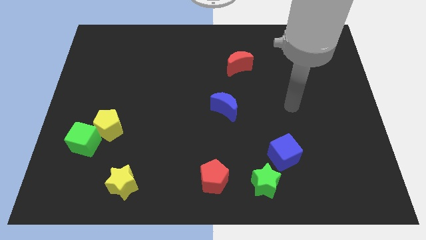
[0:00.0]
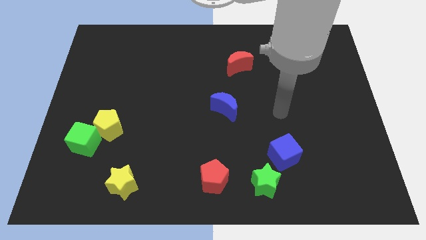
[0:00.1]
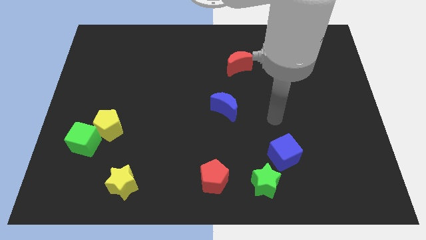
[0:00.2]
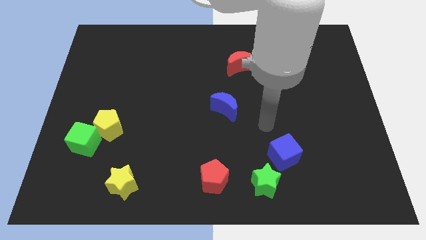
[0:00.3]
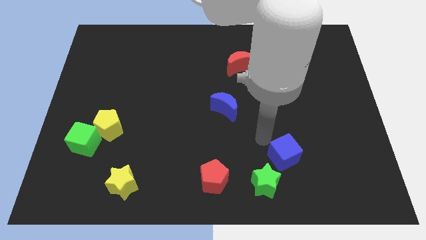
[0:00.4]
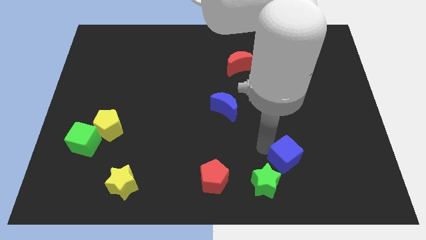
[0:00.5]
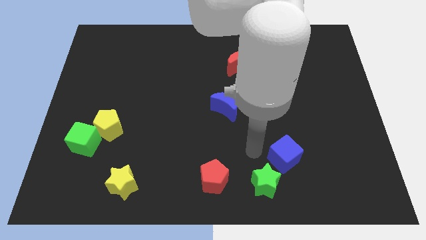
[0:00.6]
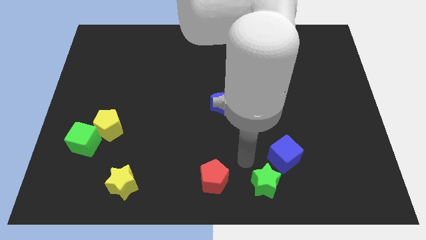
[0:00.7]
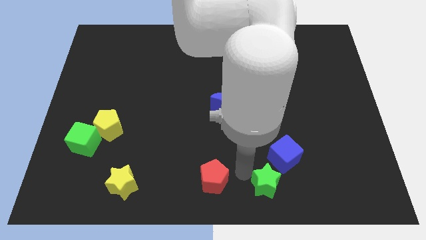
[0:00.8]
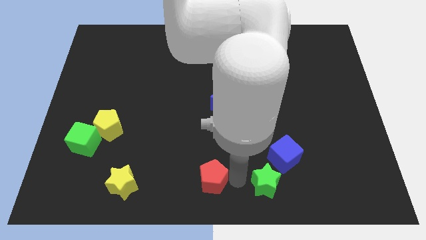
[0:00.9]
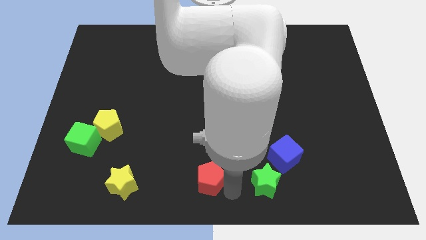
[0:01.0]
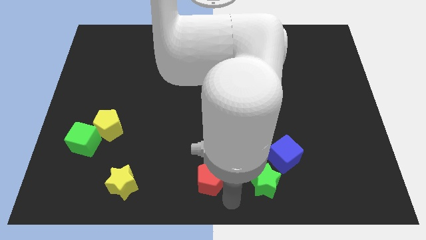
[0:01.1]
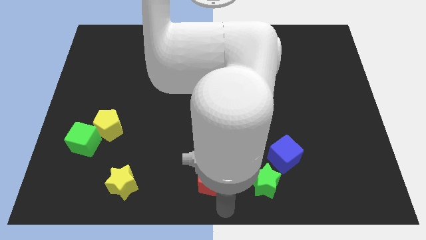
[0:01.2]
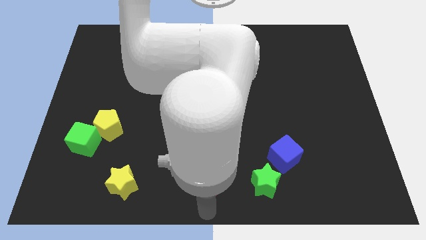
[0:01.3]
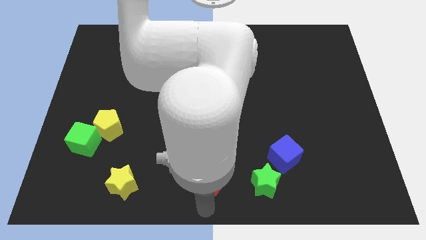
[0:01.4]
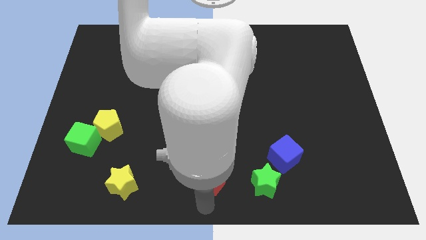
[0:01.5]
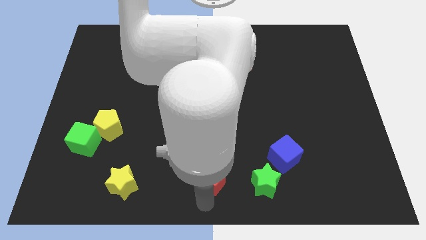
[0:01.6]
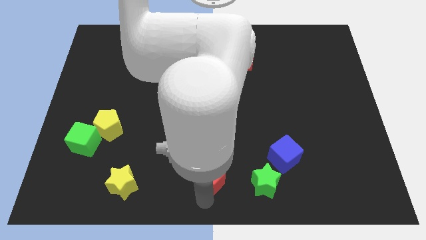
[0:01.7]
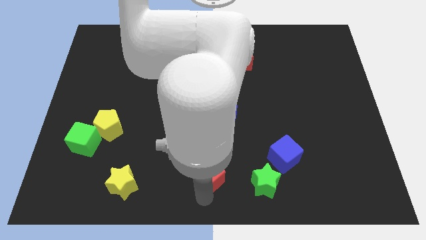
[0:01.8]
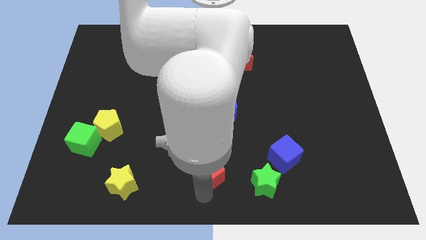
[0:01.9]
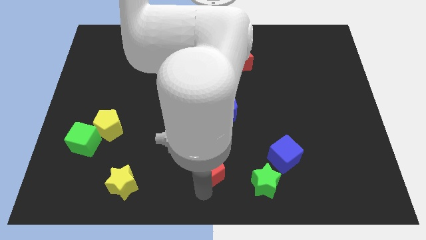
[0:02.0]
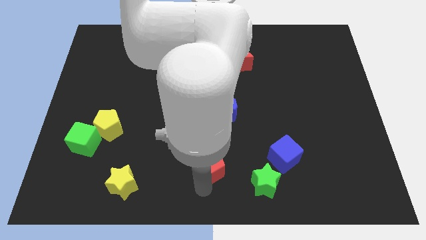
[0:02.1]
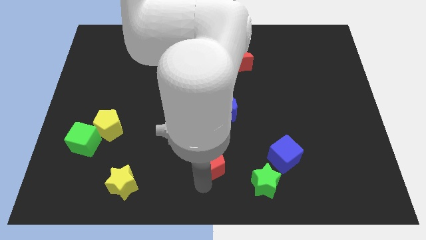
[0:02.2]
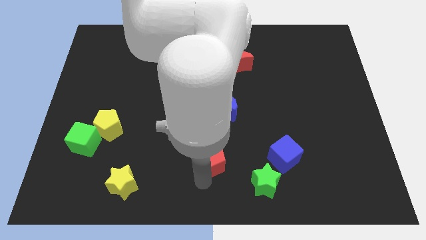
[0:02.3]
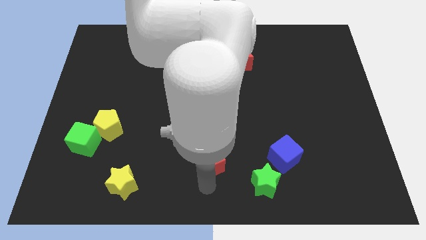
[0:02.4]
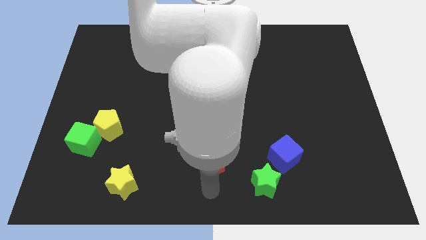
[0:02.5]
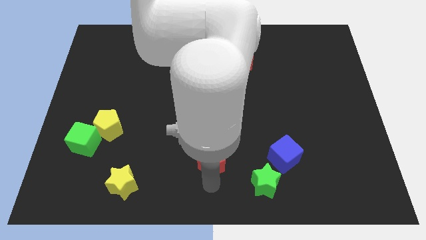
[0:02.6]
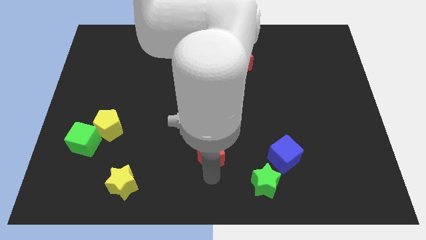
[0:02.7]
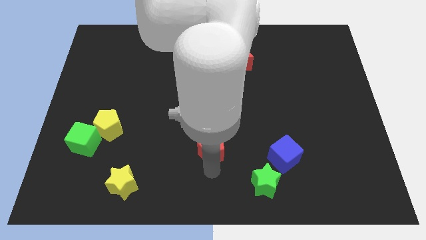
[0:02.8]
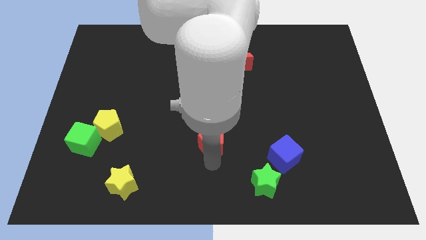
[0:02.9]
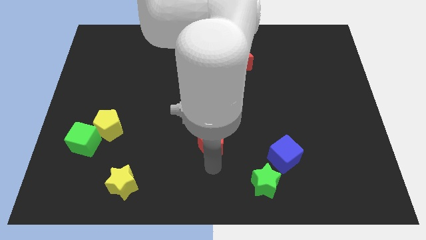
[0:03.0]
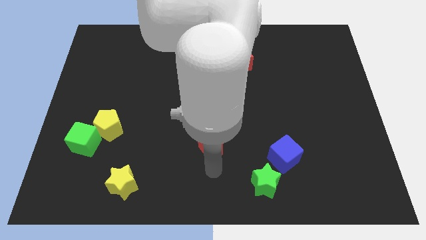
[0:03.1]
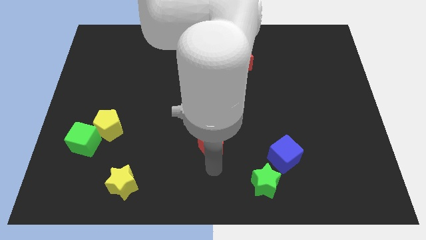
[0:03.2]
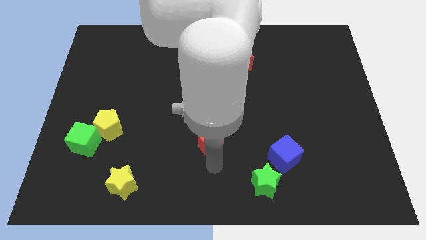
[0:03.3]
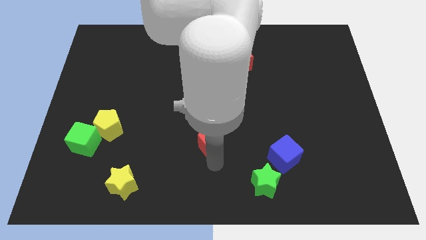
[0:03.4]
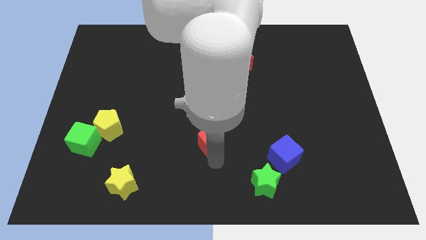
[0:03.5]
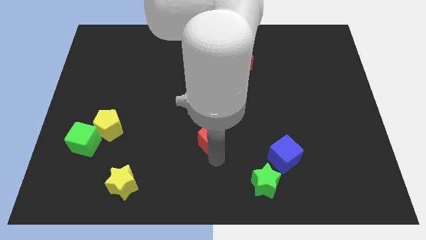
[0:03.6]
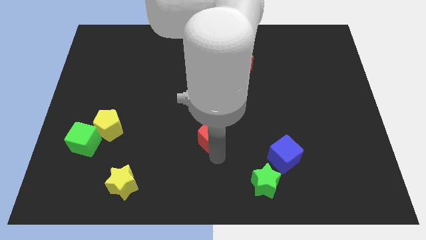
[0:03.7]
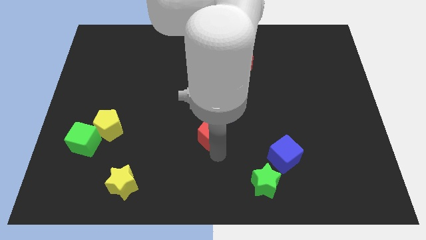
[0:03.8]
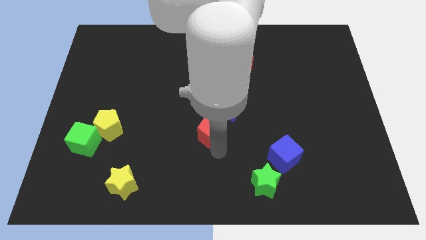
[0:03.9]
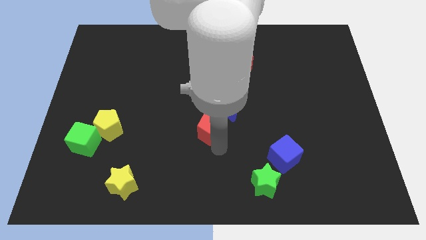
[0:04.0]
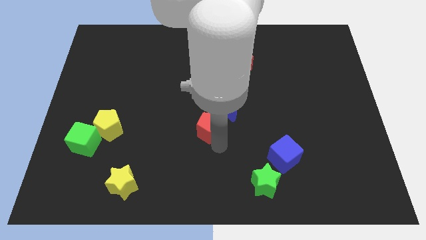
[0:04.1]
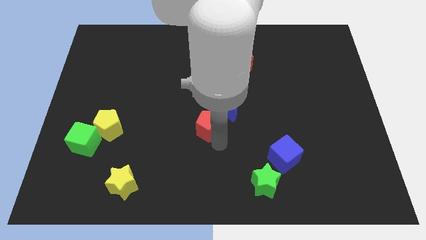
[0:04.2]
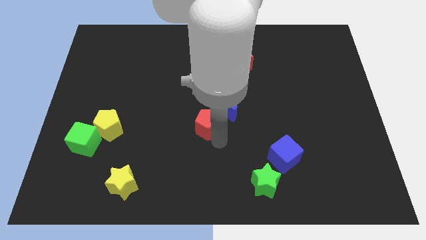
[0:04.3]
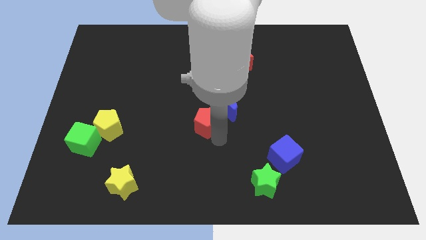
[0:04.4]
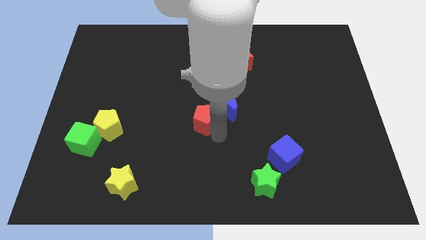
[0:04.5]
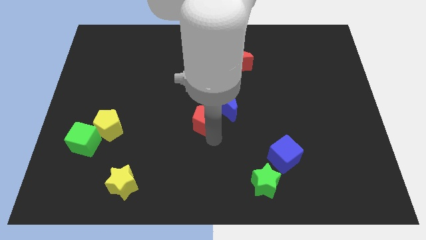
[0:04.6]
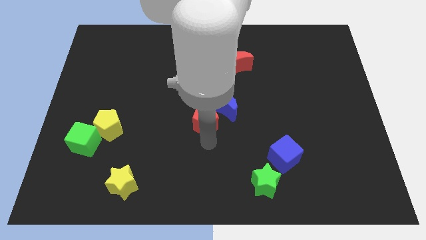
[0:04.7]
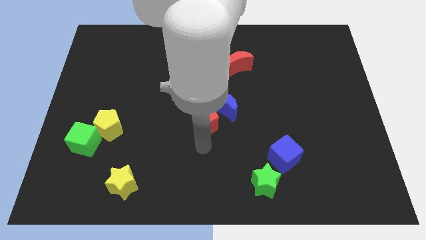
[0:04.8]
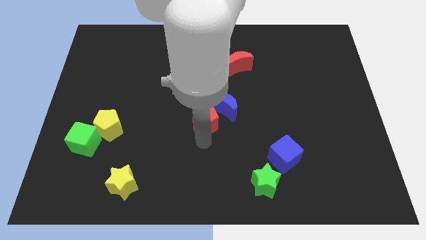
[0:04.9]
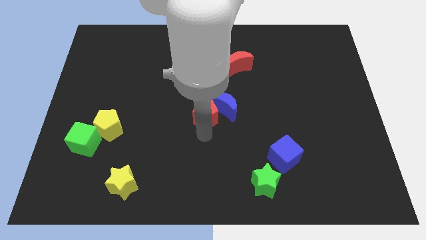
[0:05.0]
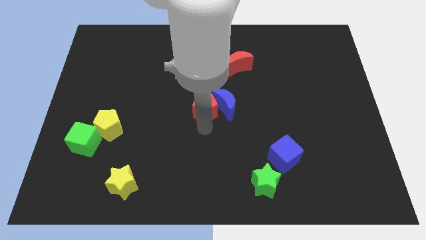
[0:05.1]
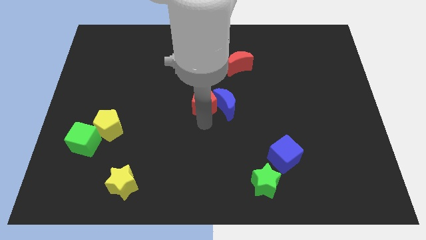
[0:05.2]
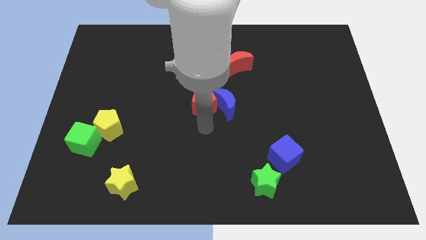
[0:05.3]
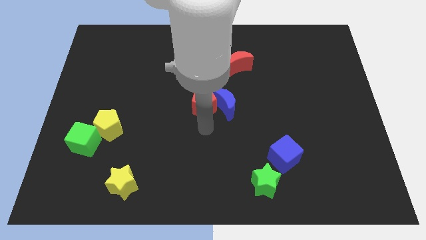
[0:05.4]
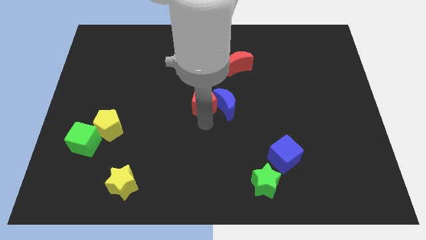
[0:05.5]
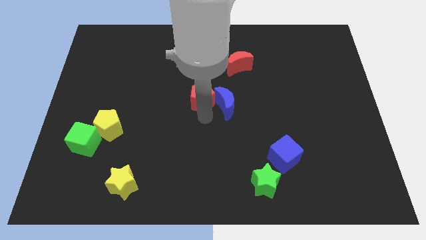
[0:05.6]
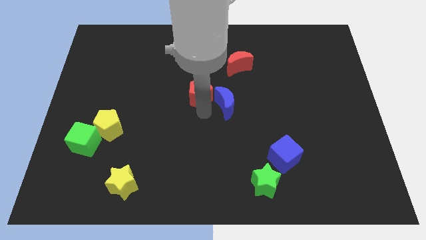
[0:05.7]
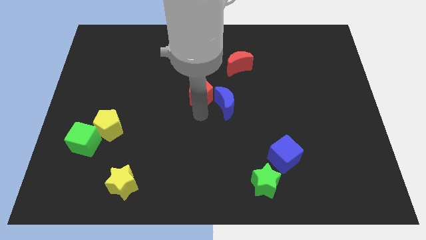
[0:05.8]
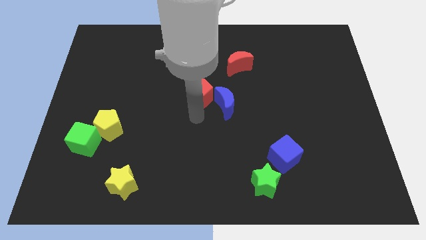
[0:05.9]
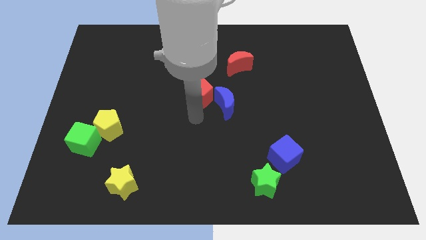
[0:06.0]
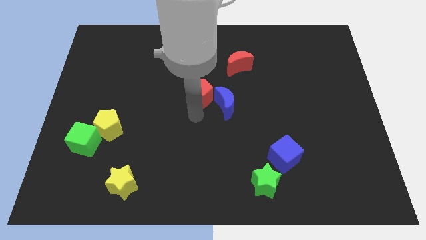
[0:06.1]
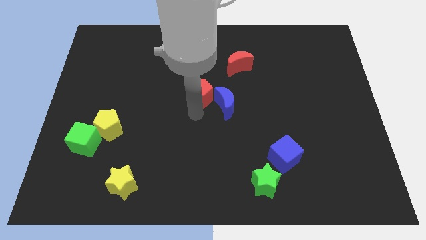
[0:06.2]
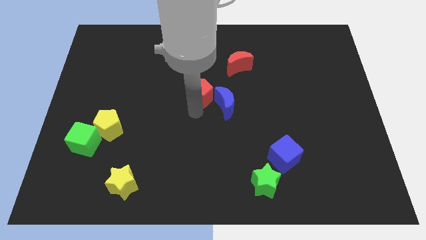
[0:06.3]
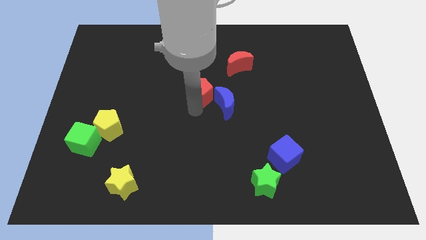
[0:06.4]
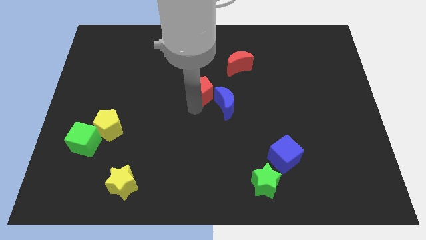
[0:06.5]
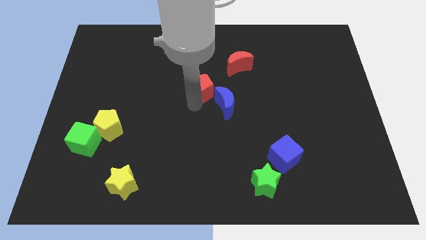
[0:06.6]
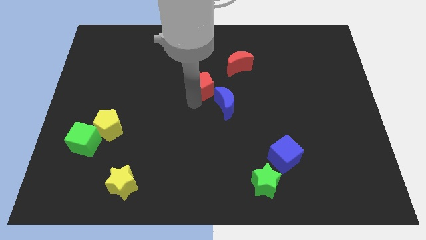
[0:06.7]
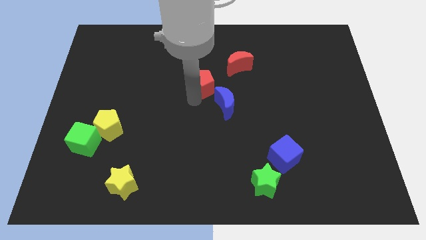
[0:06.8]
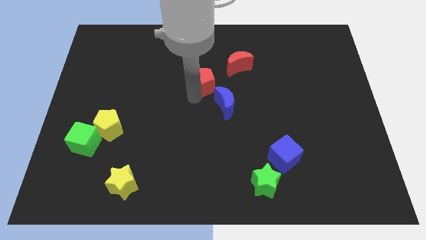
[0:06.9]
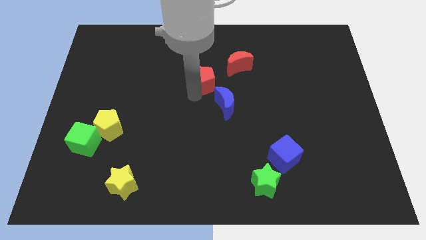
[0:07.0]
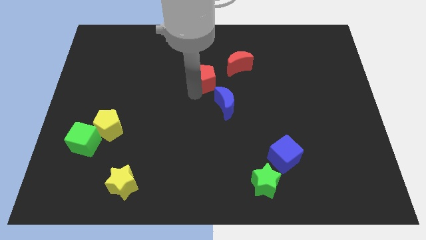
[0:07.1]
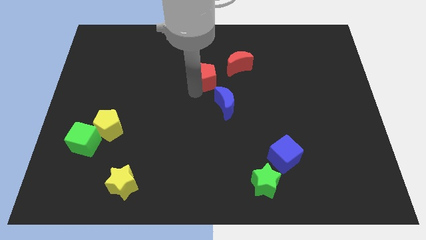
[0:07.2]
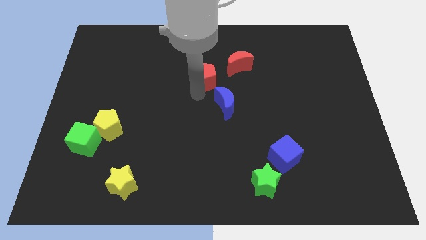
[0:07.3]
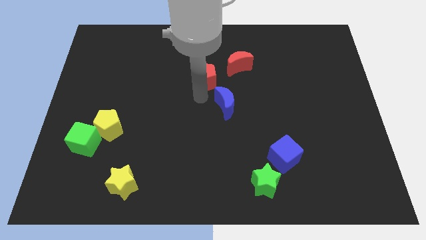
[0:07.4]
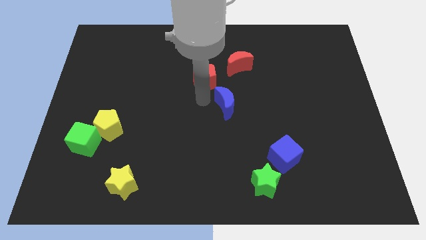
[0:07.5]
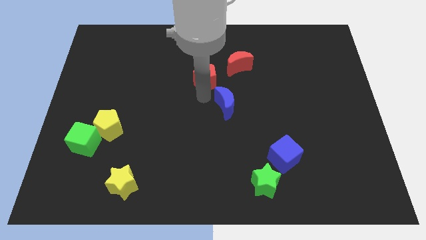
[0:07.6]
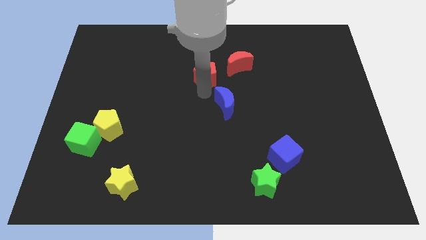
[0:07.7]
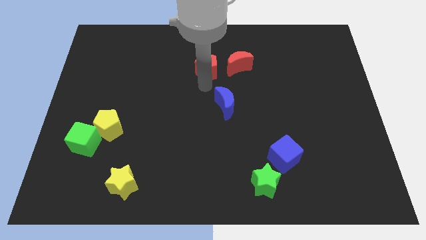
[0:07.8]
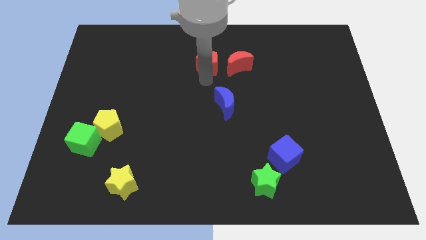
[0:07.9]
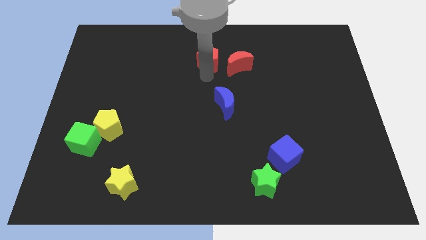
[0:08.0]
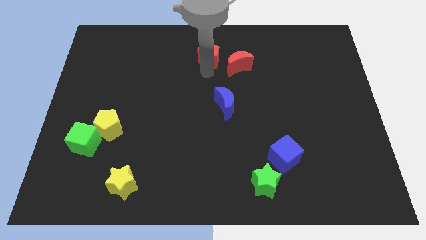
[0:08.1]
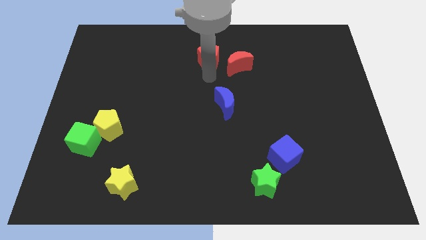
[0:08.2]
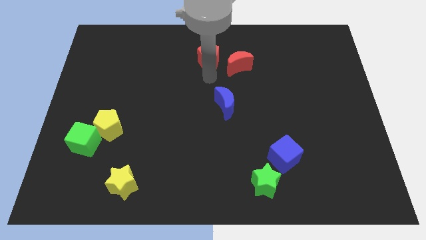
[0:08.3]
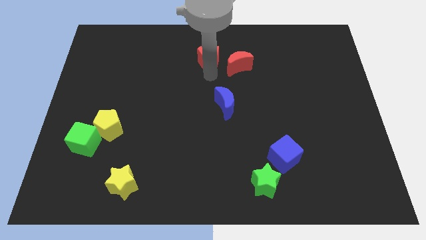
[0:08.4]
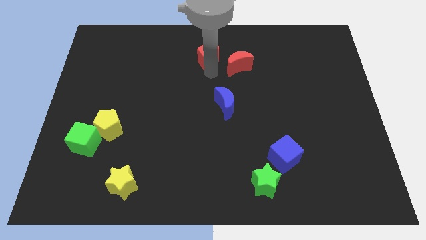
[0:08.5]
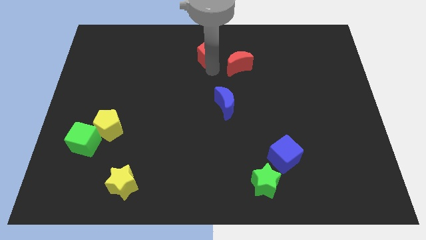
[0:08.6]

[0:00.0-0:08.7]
push the red pentagon to the towards your base
